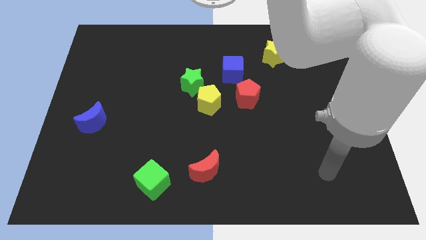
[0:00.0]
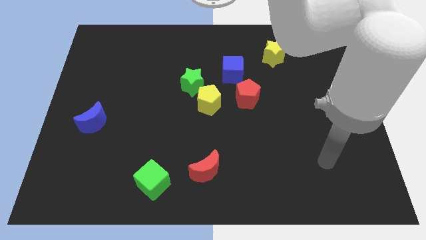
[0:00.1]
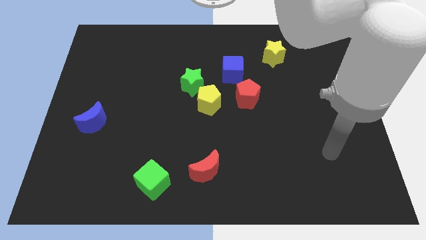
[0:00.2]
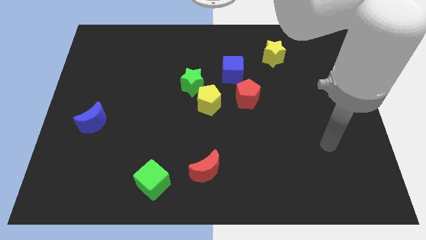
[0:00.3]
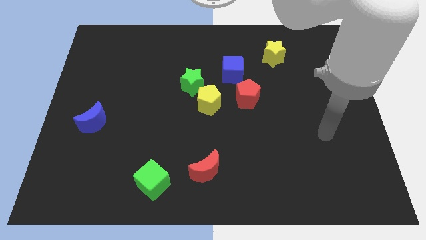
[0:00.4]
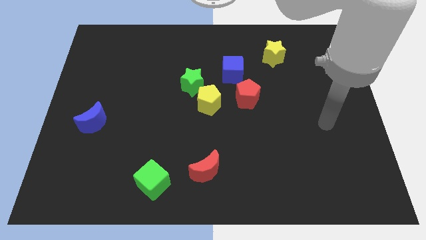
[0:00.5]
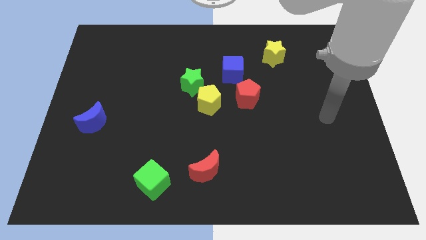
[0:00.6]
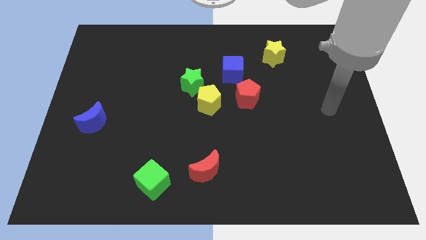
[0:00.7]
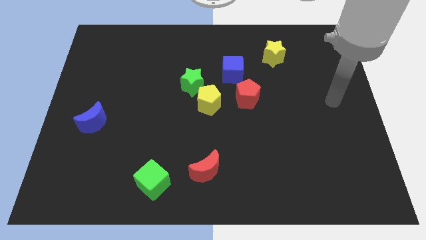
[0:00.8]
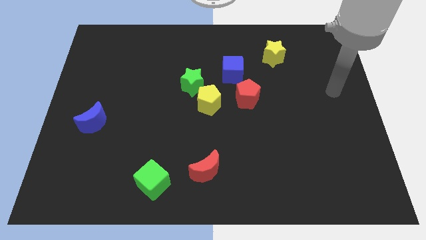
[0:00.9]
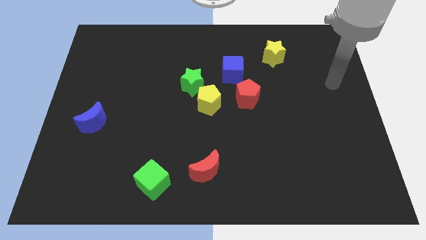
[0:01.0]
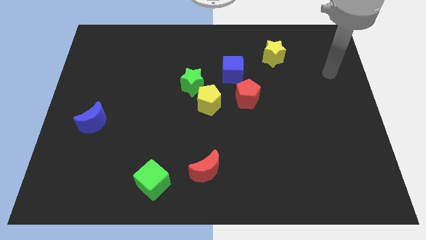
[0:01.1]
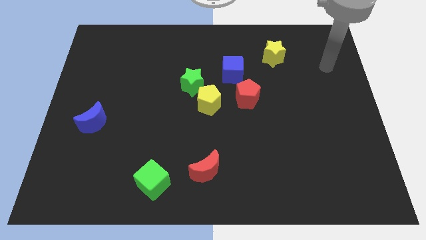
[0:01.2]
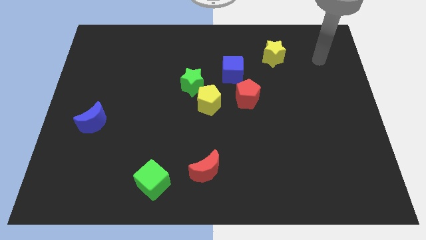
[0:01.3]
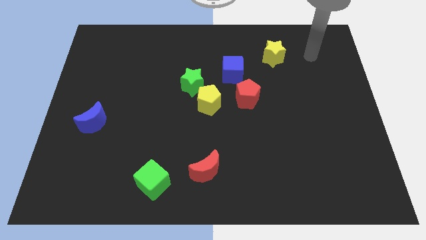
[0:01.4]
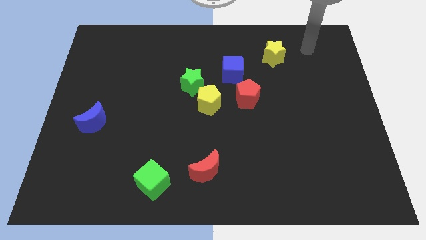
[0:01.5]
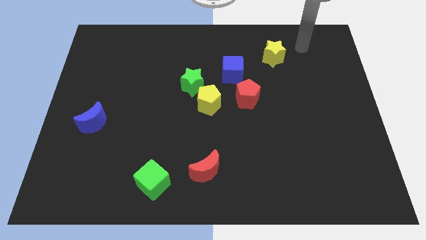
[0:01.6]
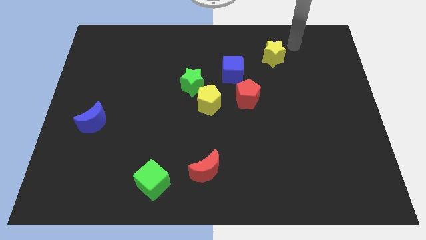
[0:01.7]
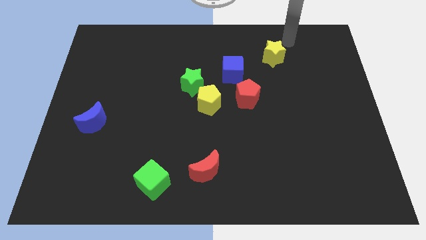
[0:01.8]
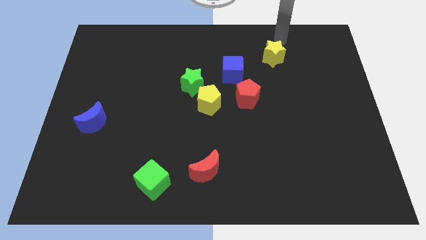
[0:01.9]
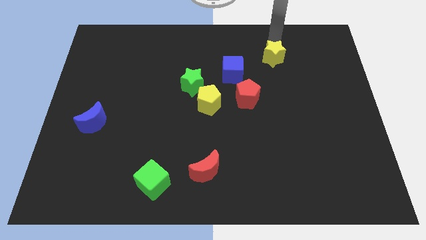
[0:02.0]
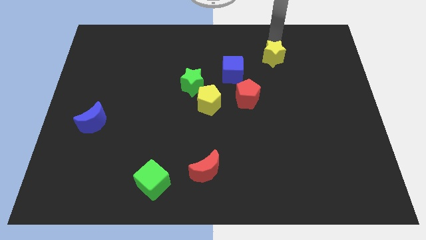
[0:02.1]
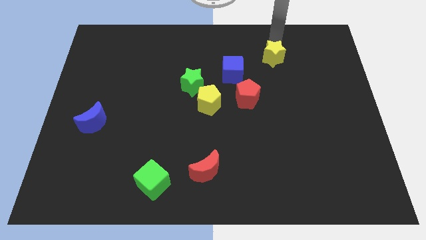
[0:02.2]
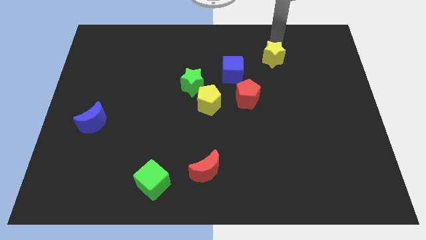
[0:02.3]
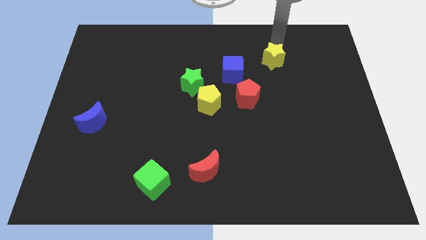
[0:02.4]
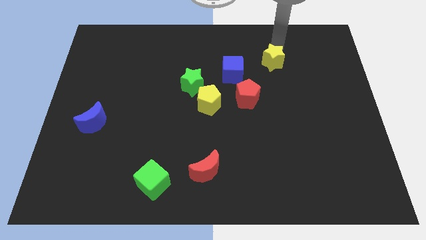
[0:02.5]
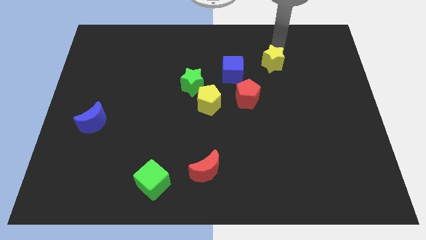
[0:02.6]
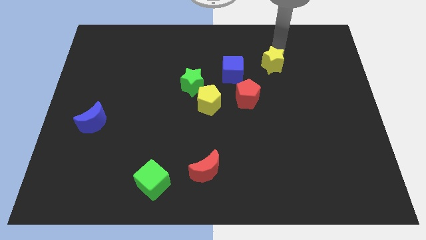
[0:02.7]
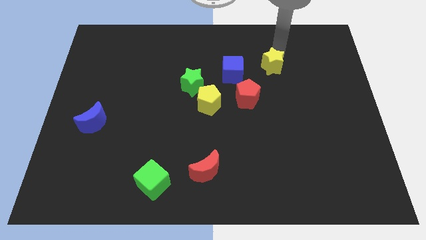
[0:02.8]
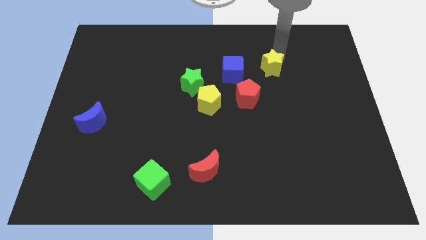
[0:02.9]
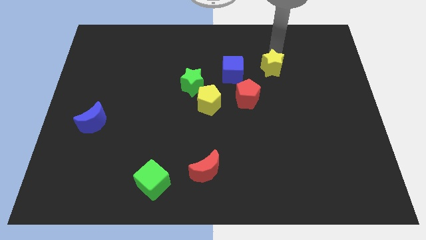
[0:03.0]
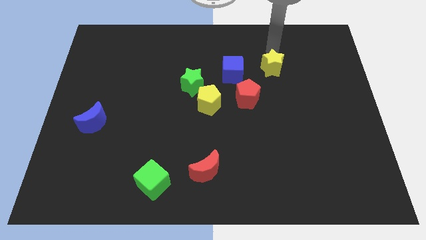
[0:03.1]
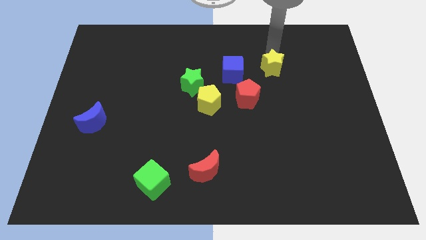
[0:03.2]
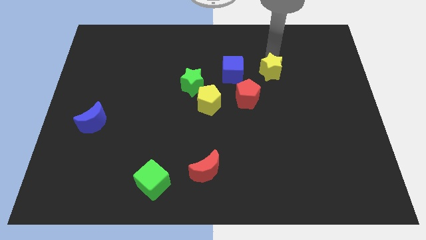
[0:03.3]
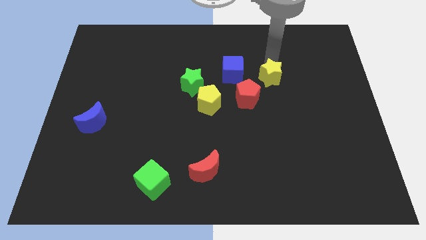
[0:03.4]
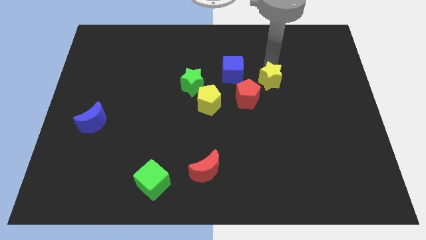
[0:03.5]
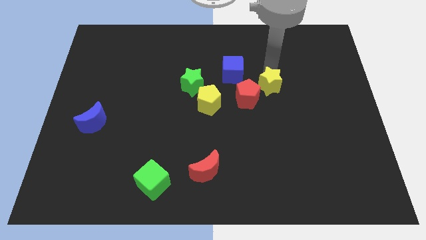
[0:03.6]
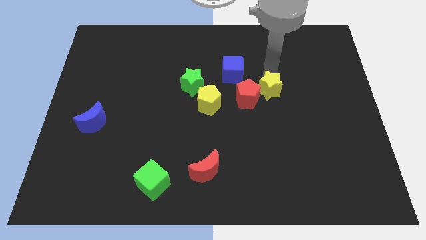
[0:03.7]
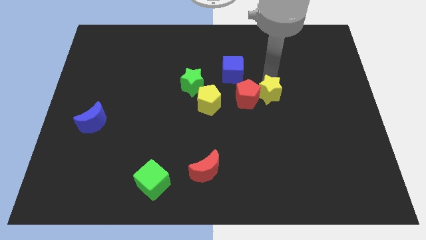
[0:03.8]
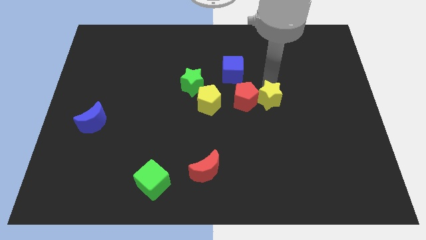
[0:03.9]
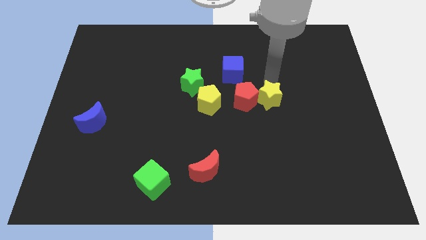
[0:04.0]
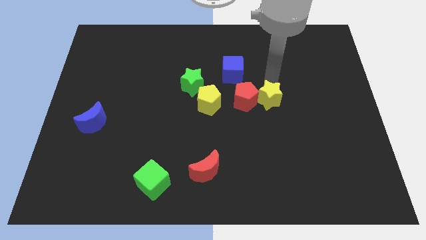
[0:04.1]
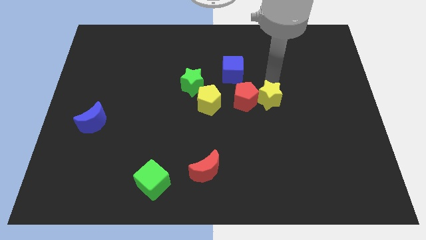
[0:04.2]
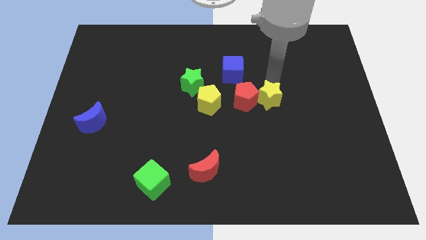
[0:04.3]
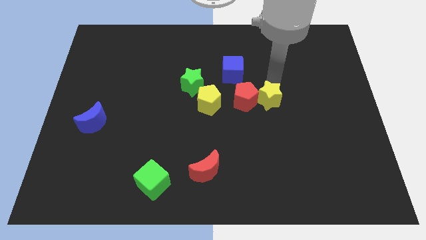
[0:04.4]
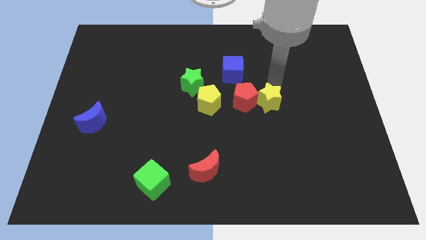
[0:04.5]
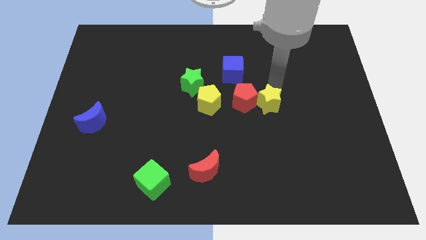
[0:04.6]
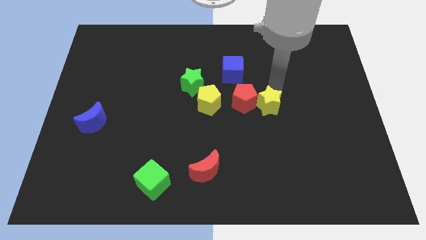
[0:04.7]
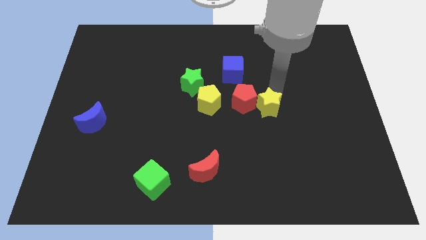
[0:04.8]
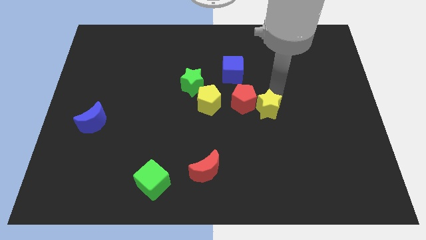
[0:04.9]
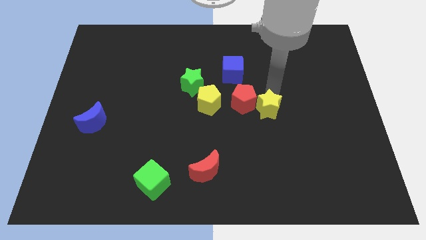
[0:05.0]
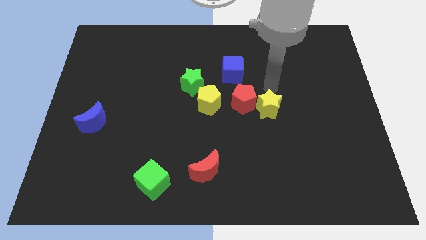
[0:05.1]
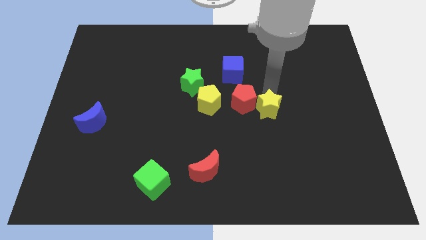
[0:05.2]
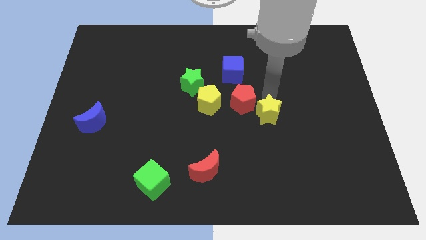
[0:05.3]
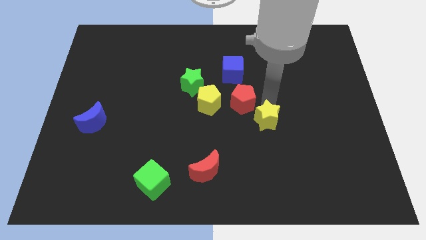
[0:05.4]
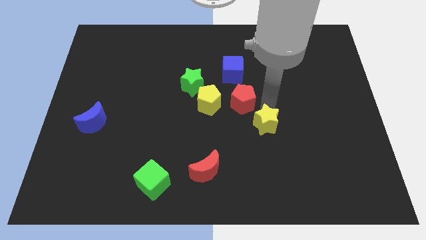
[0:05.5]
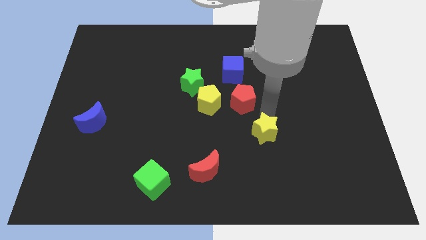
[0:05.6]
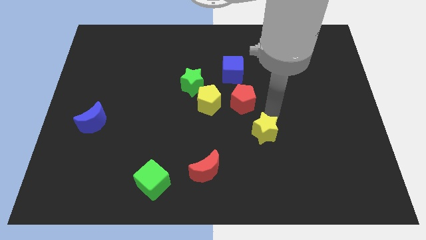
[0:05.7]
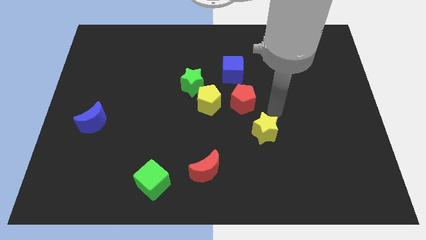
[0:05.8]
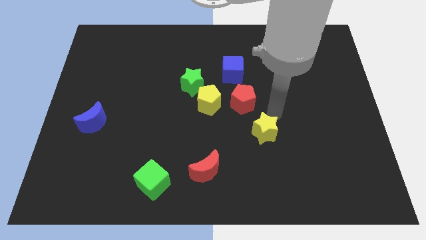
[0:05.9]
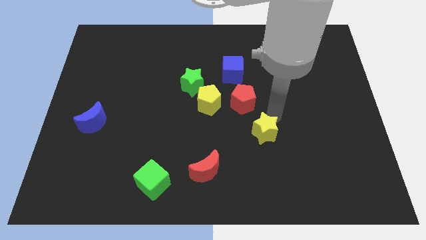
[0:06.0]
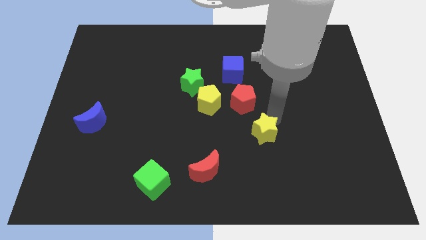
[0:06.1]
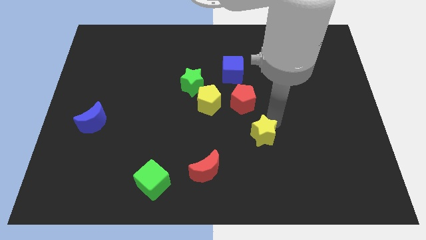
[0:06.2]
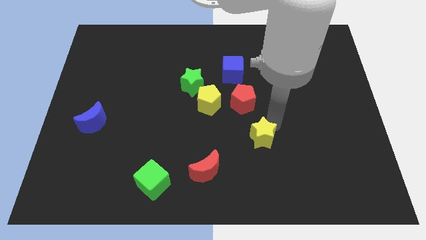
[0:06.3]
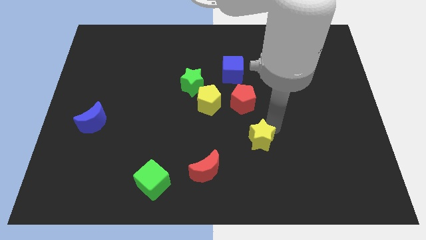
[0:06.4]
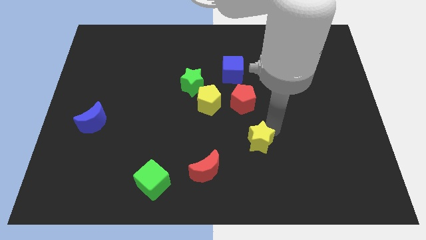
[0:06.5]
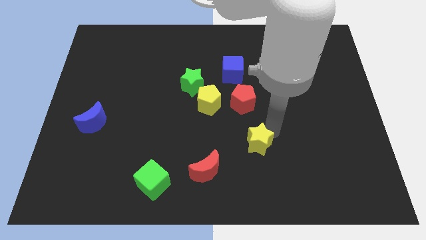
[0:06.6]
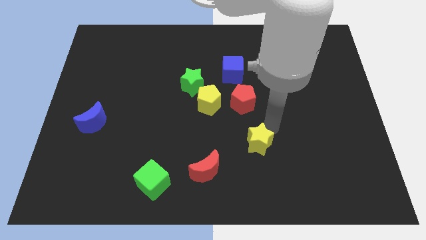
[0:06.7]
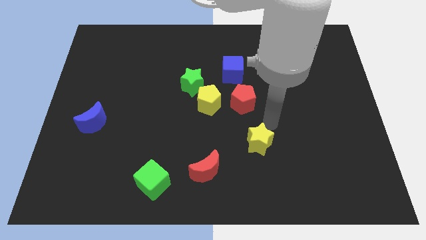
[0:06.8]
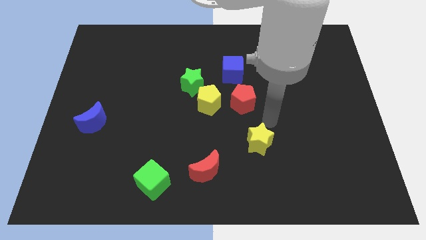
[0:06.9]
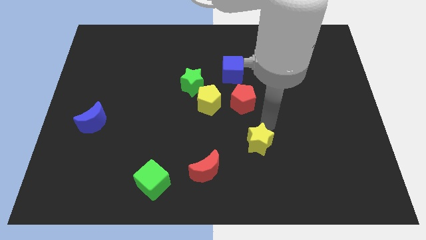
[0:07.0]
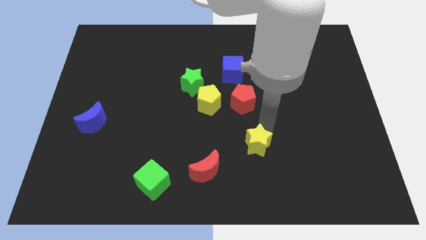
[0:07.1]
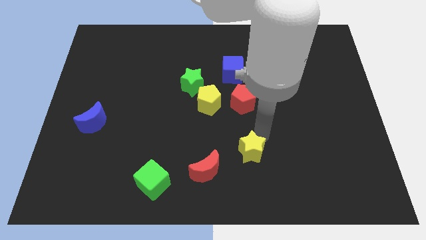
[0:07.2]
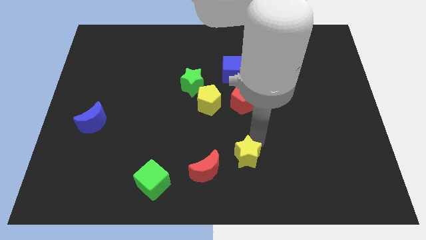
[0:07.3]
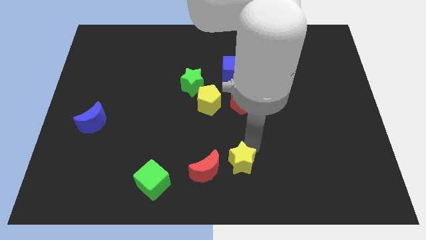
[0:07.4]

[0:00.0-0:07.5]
push the yellow star to the bottom side
